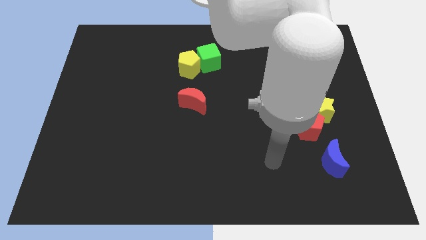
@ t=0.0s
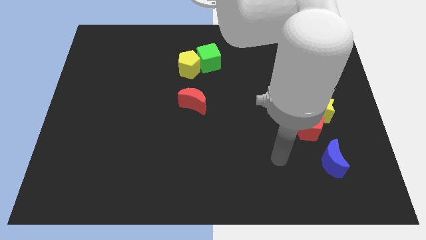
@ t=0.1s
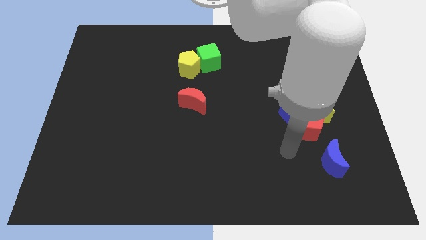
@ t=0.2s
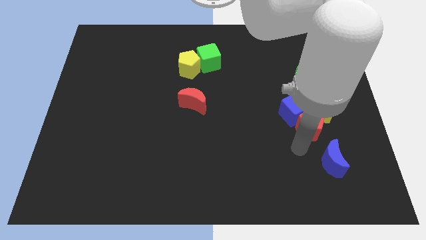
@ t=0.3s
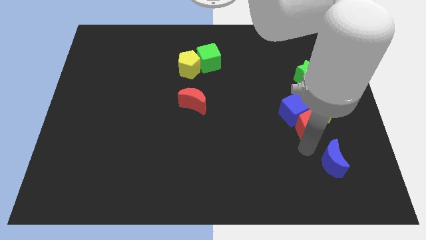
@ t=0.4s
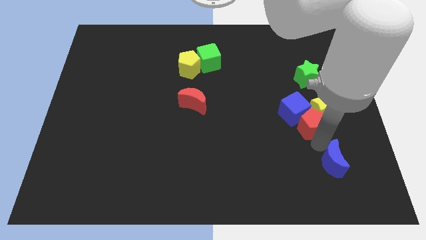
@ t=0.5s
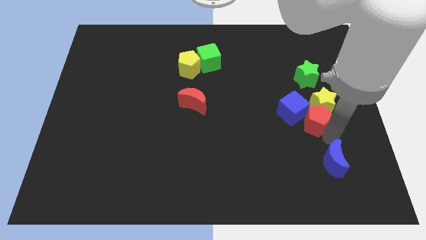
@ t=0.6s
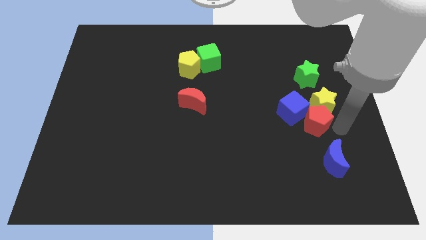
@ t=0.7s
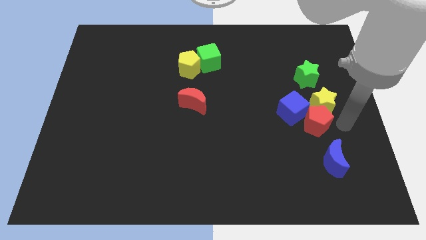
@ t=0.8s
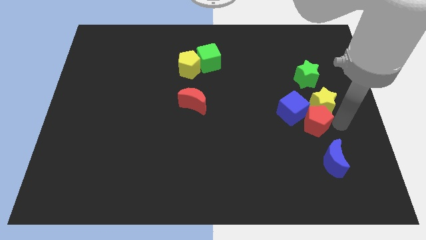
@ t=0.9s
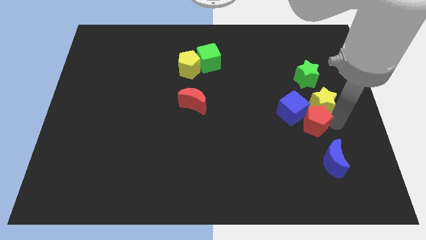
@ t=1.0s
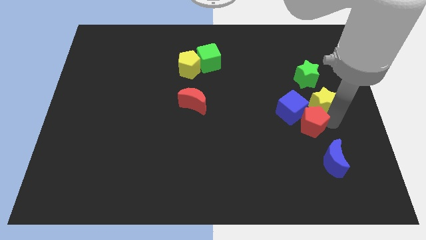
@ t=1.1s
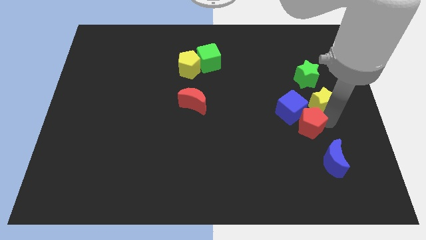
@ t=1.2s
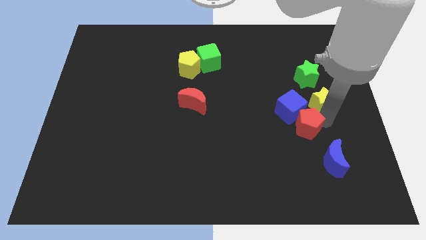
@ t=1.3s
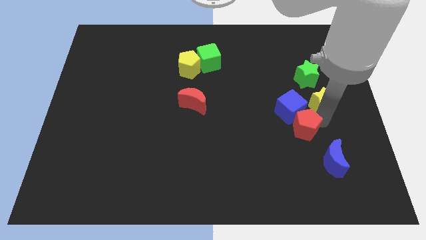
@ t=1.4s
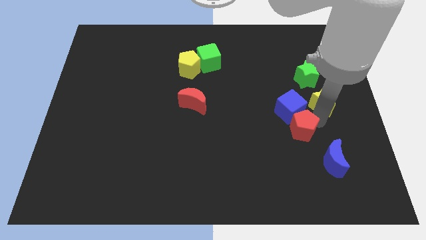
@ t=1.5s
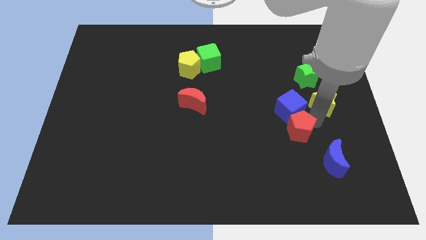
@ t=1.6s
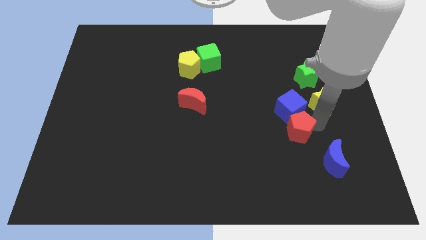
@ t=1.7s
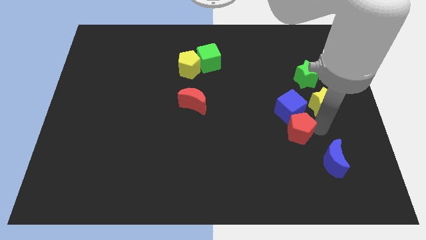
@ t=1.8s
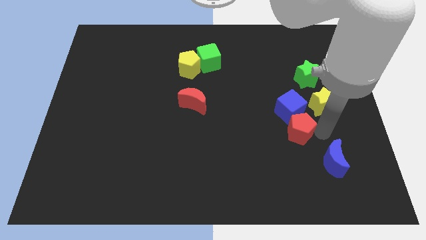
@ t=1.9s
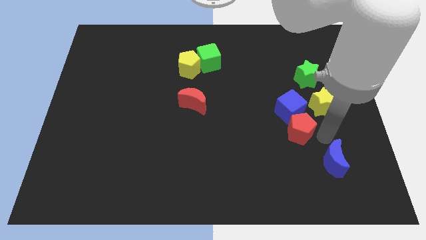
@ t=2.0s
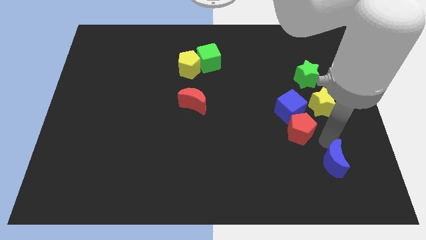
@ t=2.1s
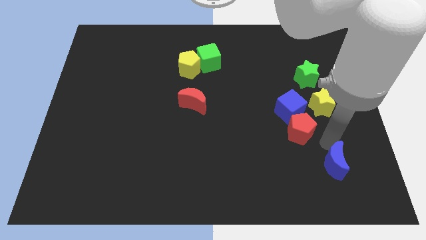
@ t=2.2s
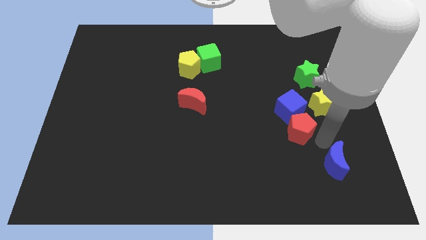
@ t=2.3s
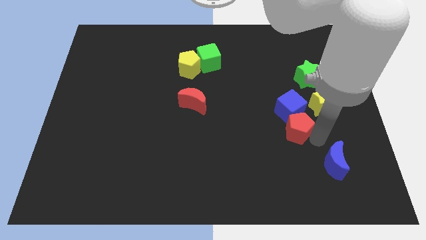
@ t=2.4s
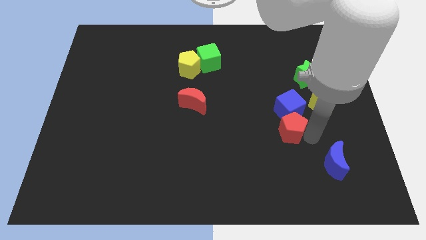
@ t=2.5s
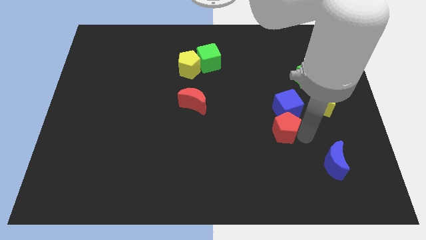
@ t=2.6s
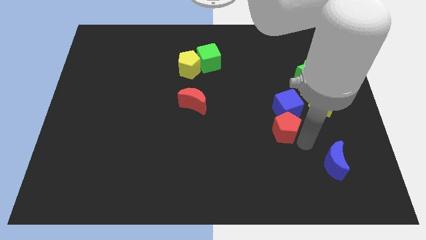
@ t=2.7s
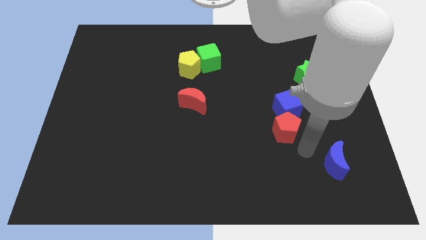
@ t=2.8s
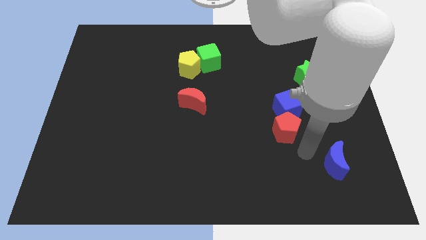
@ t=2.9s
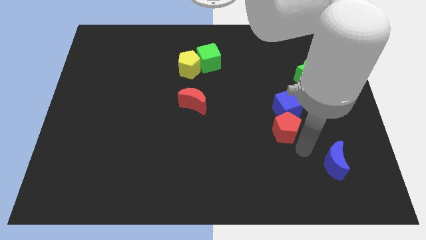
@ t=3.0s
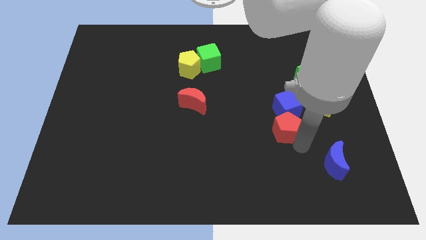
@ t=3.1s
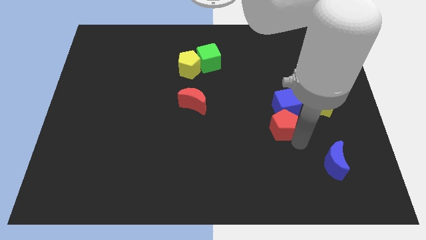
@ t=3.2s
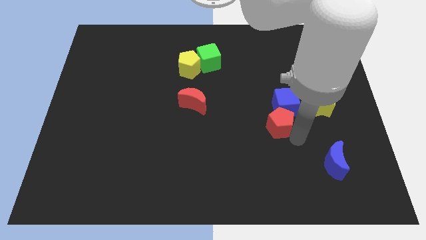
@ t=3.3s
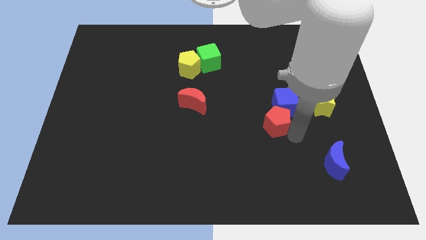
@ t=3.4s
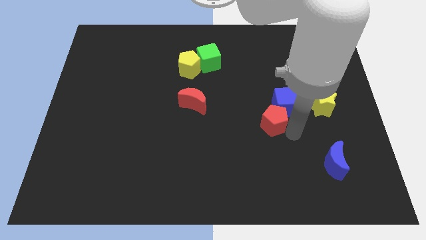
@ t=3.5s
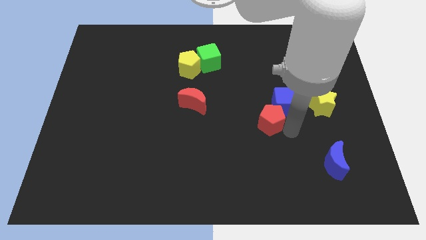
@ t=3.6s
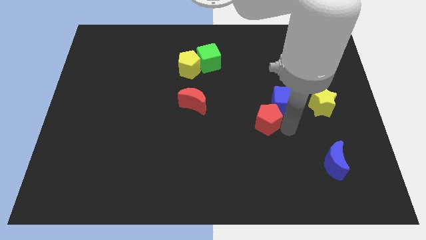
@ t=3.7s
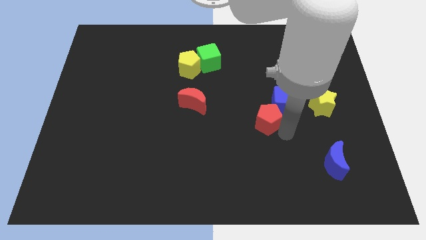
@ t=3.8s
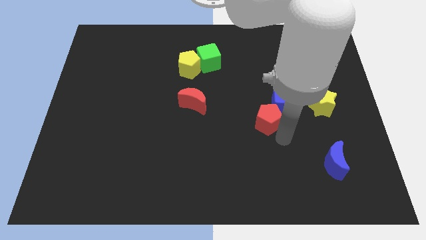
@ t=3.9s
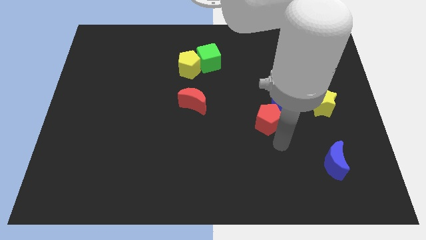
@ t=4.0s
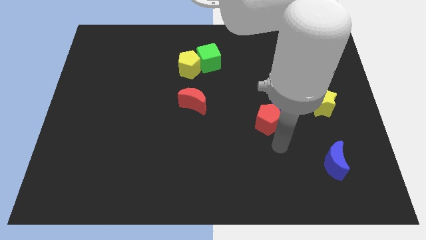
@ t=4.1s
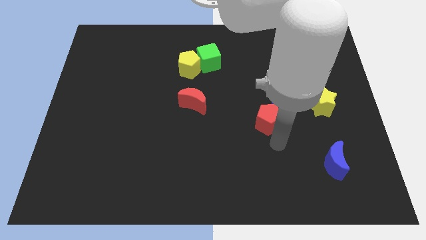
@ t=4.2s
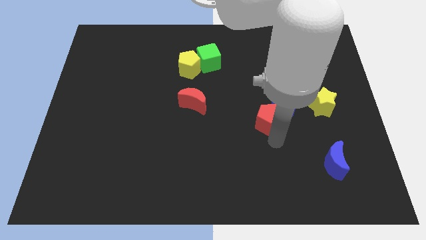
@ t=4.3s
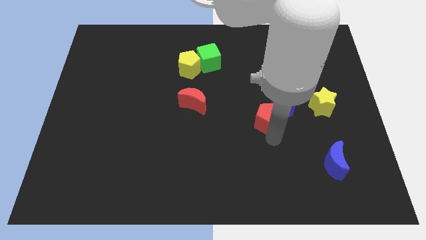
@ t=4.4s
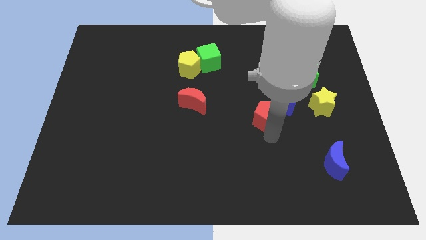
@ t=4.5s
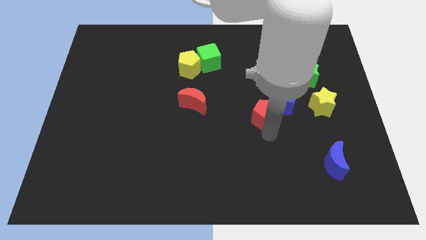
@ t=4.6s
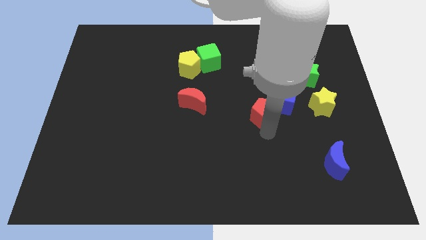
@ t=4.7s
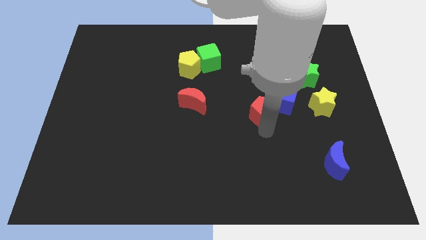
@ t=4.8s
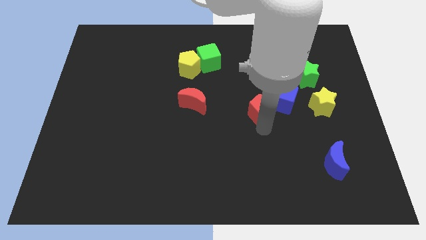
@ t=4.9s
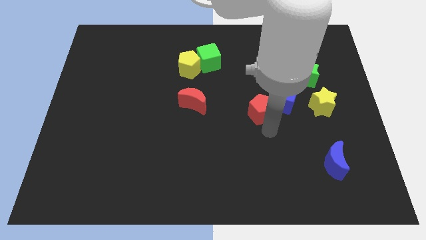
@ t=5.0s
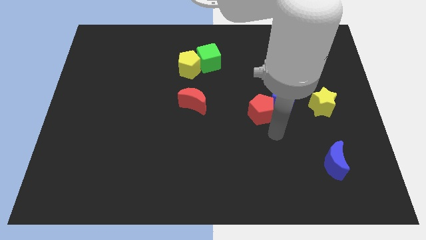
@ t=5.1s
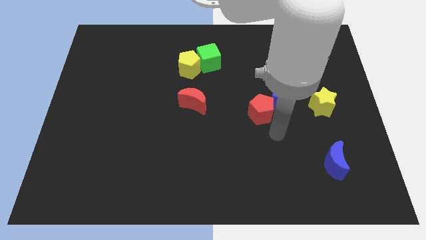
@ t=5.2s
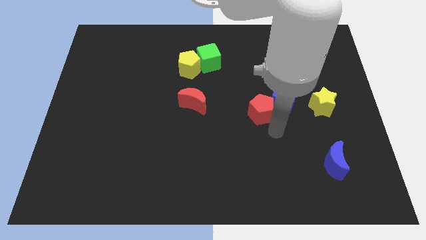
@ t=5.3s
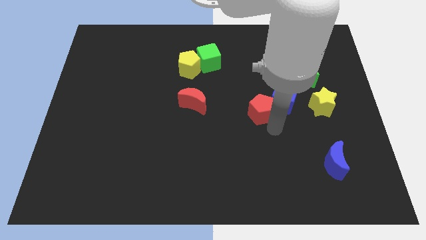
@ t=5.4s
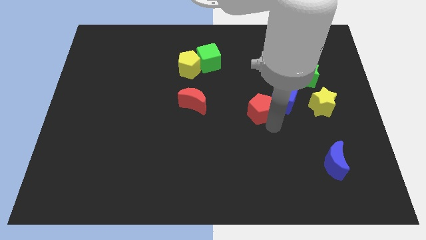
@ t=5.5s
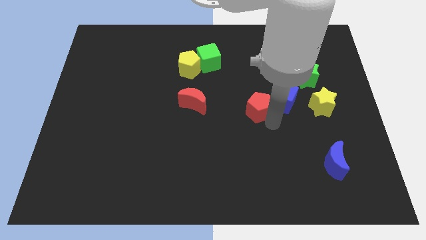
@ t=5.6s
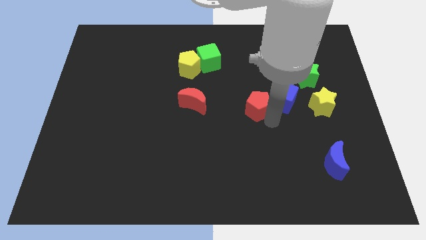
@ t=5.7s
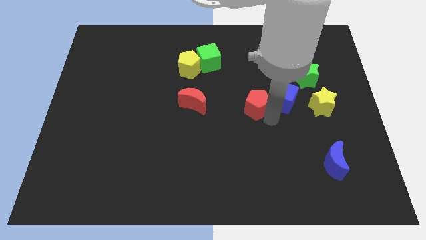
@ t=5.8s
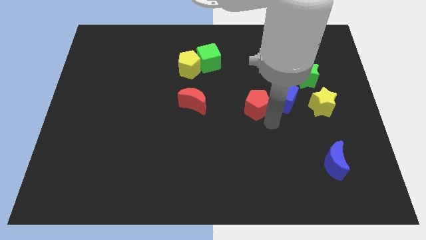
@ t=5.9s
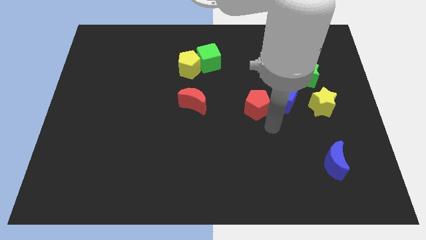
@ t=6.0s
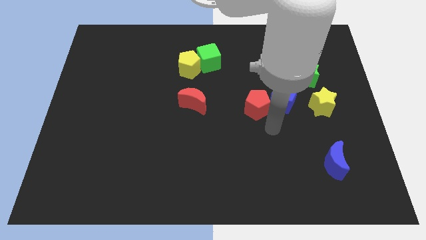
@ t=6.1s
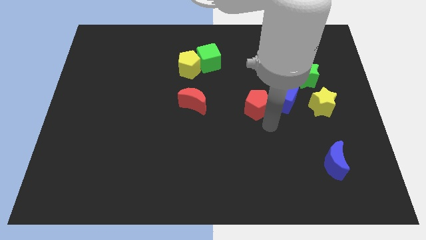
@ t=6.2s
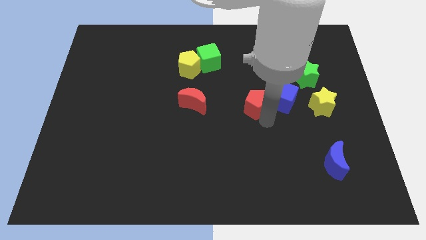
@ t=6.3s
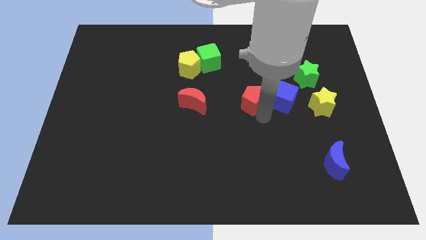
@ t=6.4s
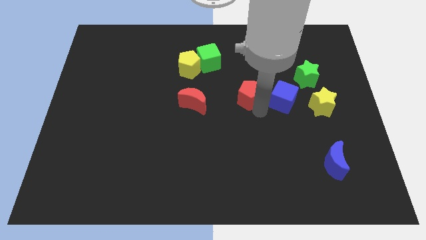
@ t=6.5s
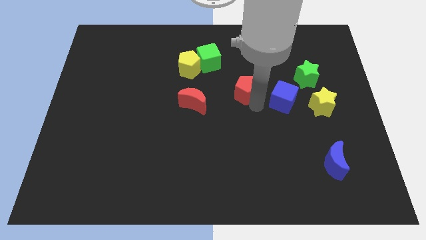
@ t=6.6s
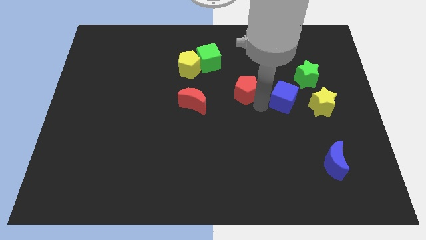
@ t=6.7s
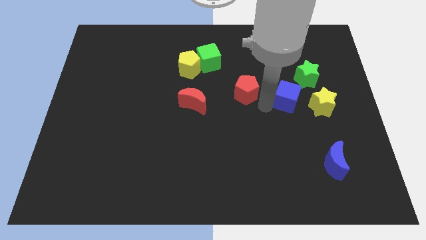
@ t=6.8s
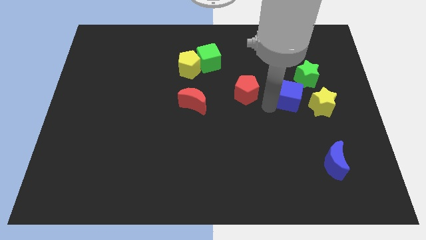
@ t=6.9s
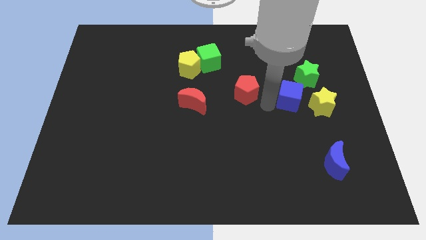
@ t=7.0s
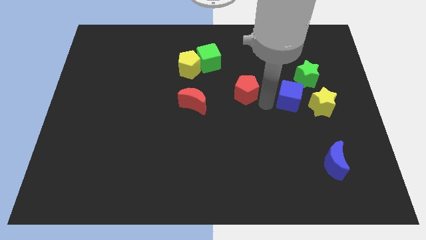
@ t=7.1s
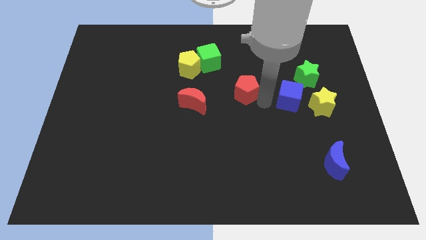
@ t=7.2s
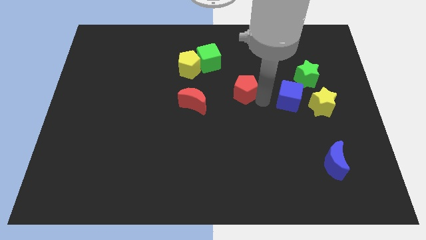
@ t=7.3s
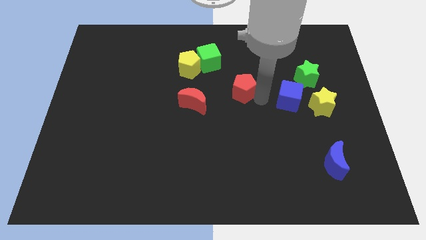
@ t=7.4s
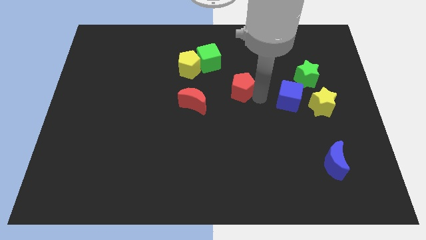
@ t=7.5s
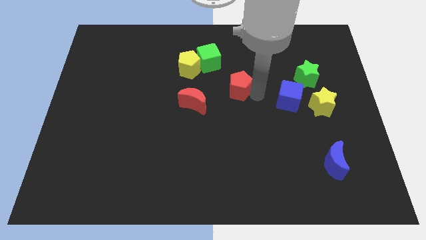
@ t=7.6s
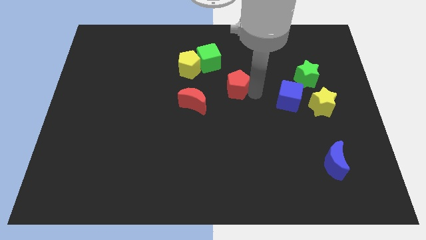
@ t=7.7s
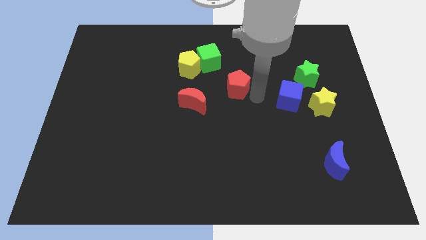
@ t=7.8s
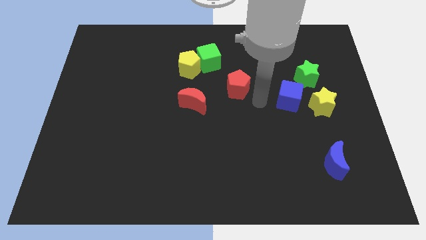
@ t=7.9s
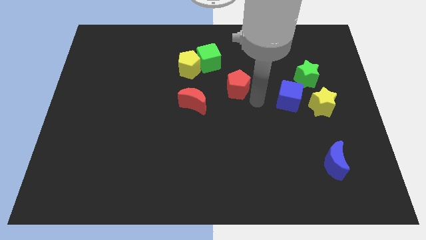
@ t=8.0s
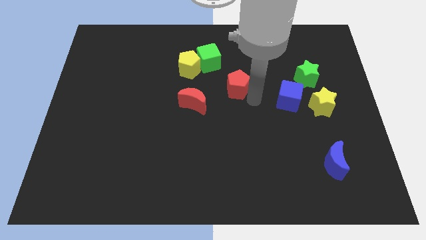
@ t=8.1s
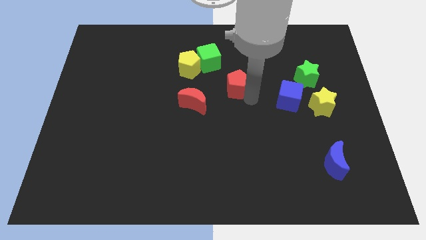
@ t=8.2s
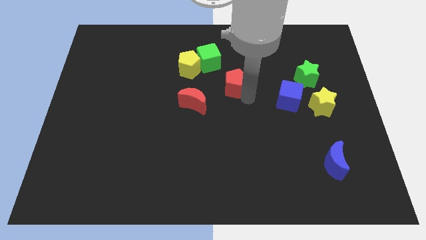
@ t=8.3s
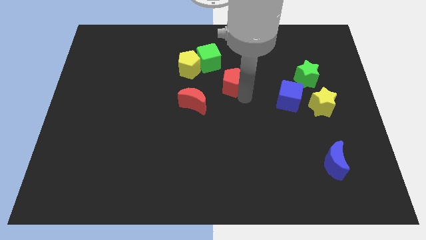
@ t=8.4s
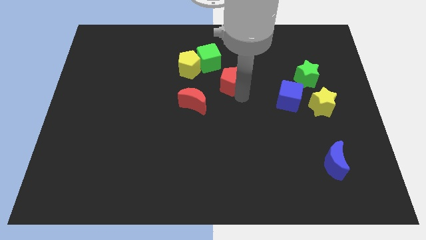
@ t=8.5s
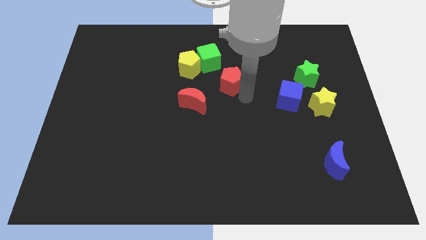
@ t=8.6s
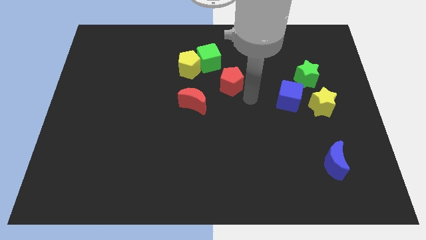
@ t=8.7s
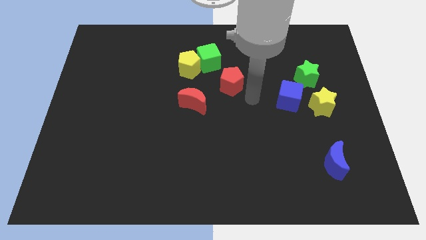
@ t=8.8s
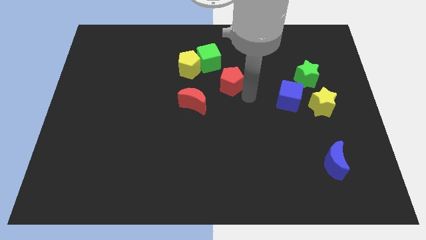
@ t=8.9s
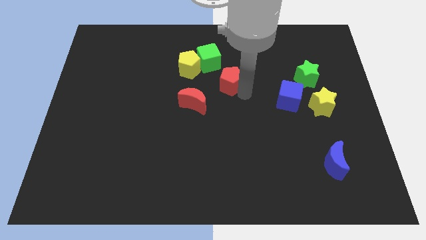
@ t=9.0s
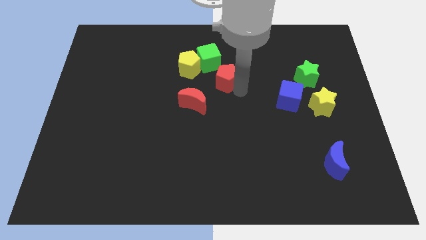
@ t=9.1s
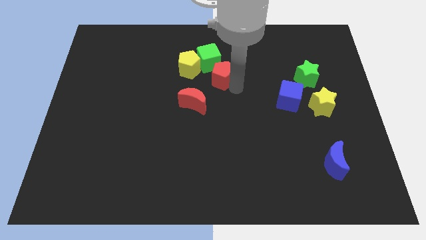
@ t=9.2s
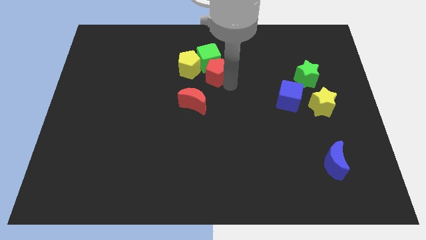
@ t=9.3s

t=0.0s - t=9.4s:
put the red pentagon next to the green cube
